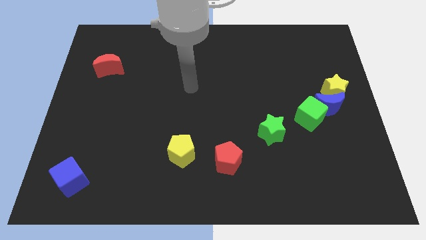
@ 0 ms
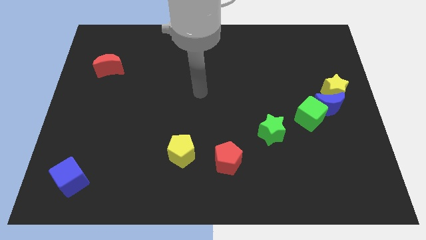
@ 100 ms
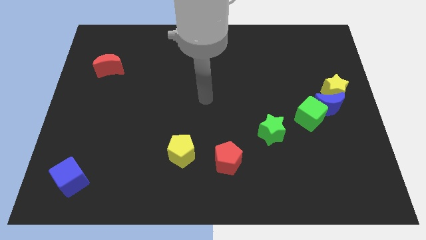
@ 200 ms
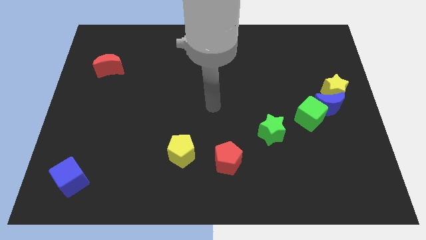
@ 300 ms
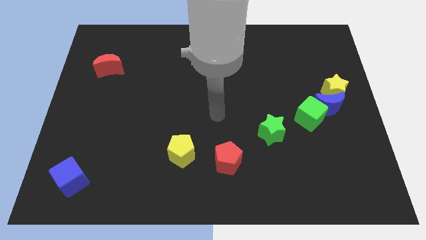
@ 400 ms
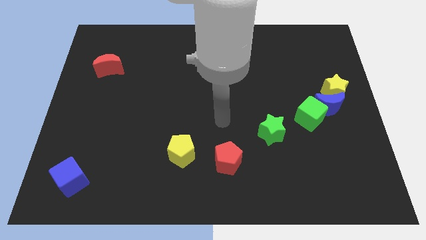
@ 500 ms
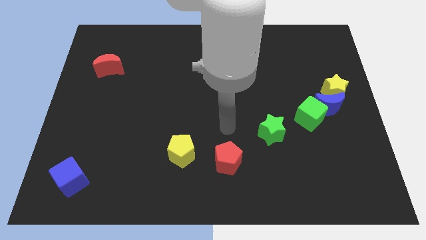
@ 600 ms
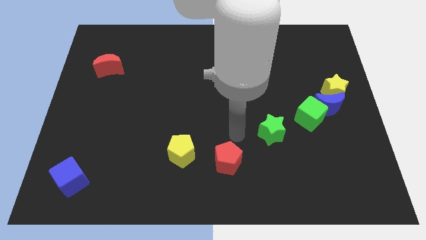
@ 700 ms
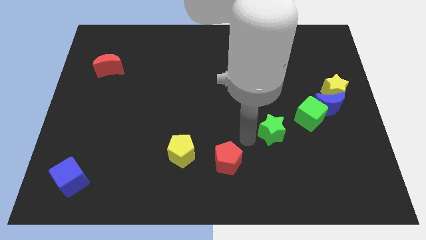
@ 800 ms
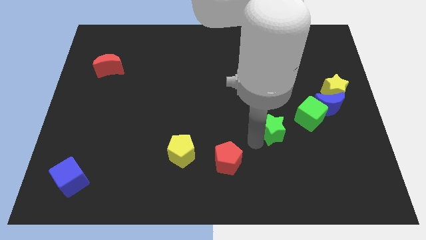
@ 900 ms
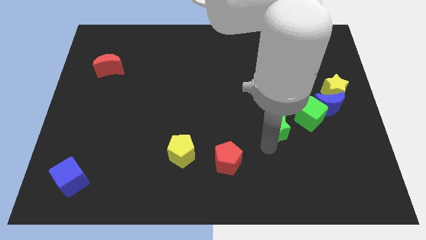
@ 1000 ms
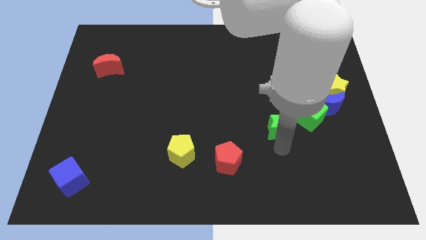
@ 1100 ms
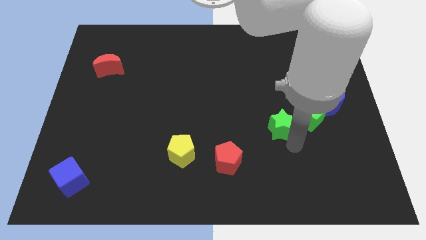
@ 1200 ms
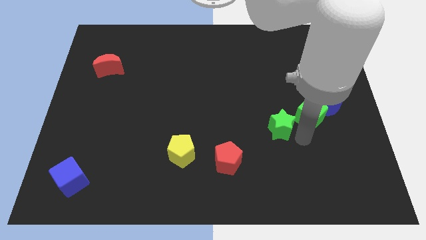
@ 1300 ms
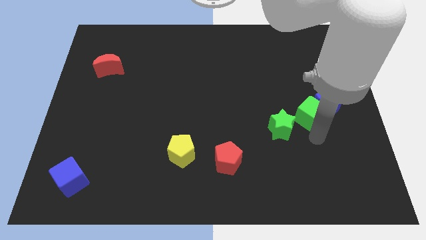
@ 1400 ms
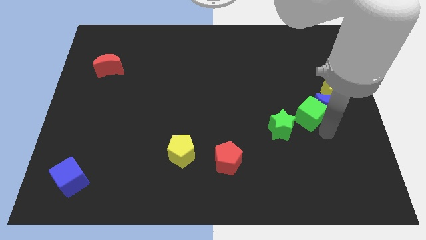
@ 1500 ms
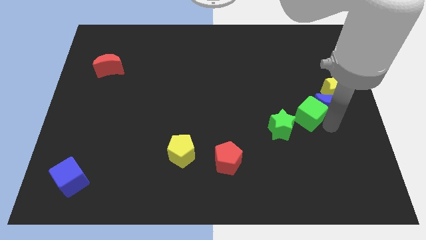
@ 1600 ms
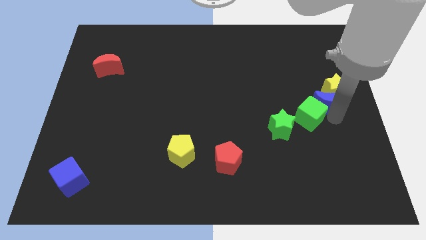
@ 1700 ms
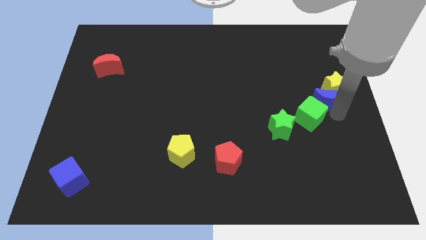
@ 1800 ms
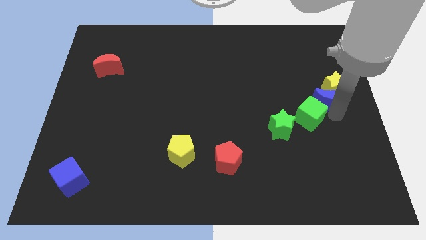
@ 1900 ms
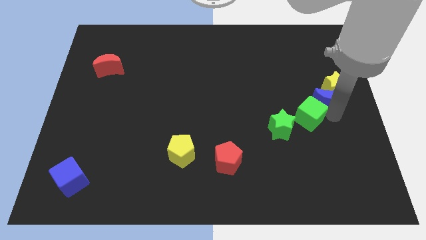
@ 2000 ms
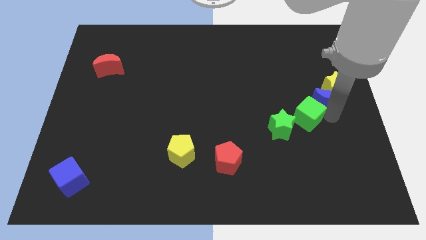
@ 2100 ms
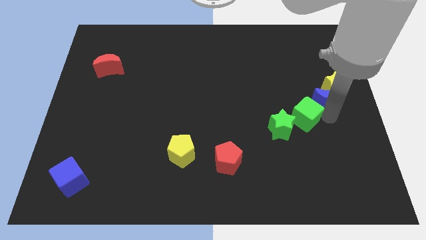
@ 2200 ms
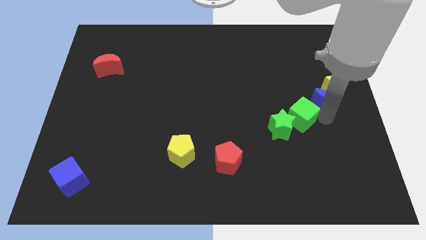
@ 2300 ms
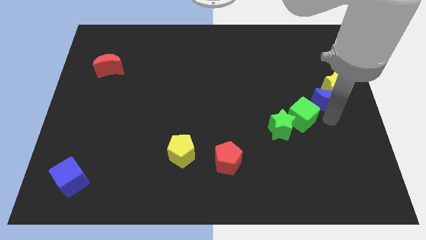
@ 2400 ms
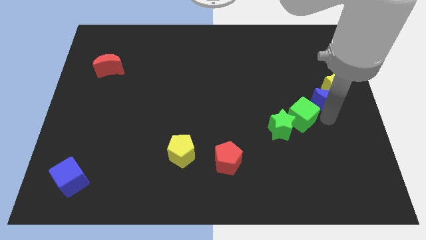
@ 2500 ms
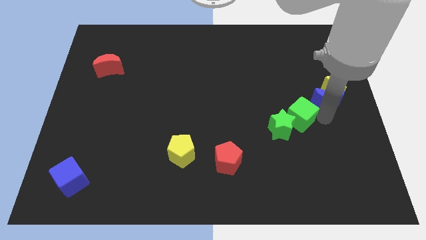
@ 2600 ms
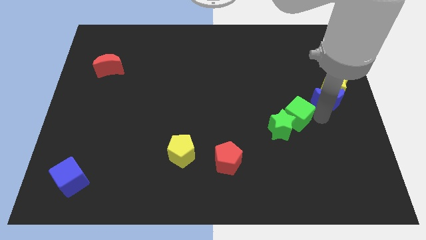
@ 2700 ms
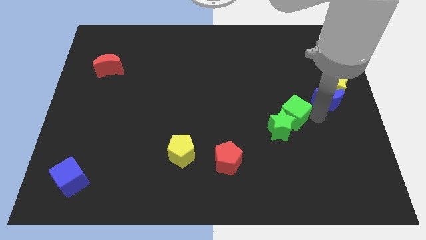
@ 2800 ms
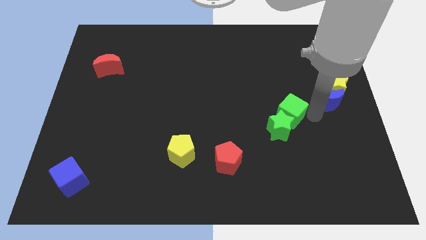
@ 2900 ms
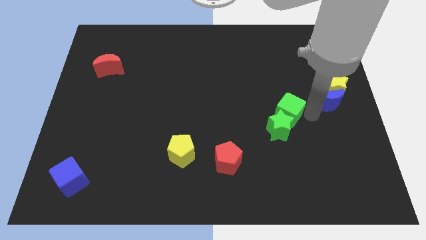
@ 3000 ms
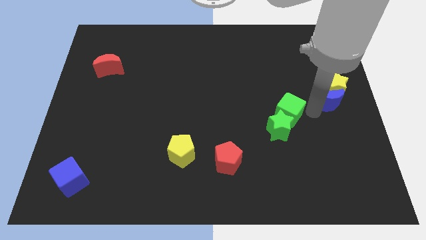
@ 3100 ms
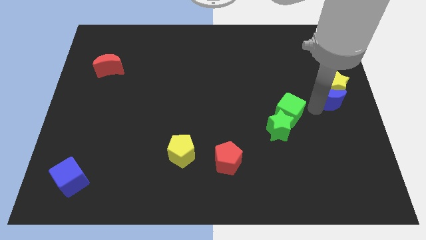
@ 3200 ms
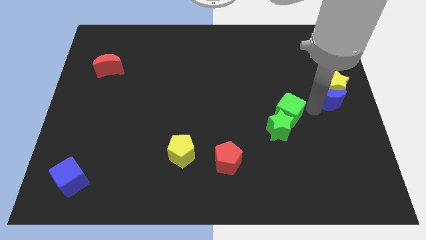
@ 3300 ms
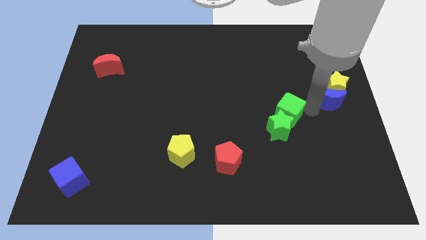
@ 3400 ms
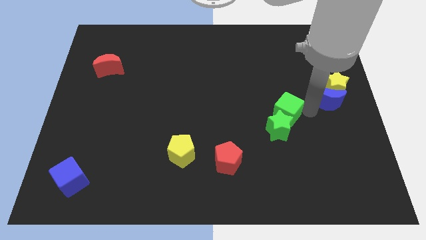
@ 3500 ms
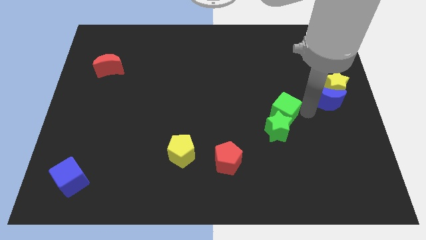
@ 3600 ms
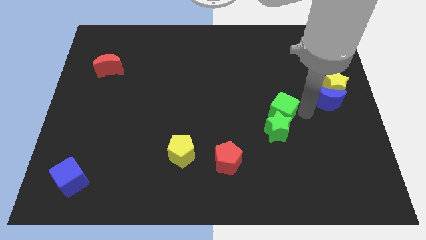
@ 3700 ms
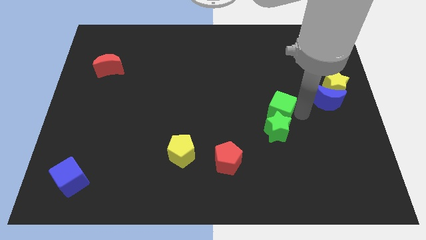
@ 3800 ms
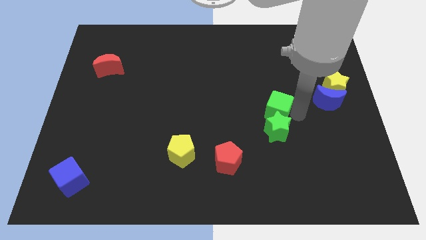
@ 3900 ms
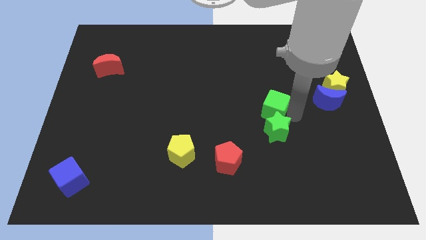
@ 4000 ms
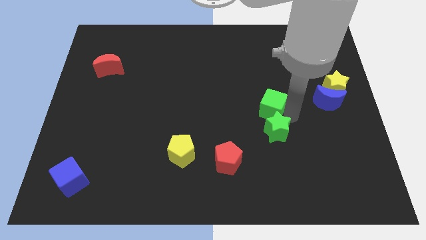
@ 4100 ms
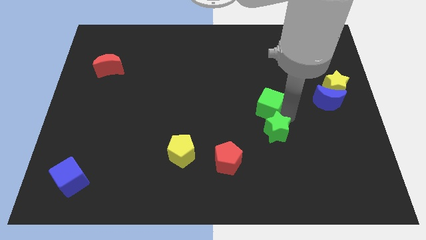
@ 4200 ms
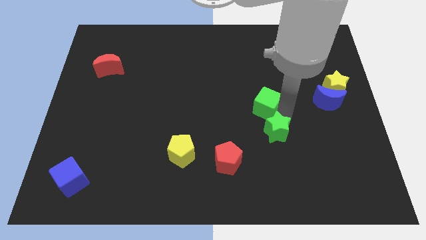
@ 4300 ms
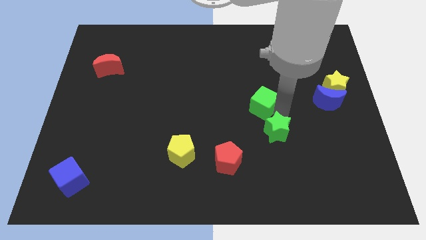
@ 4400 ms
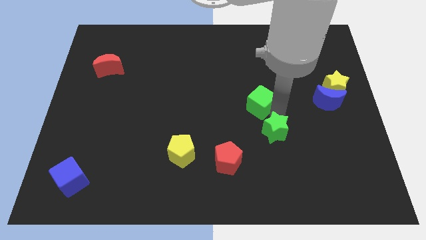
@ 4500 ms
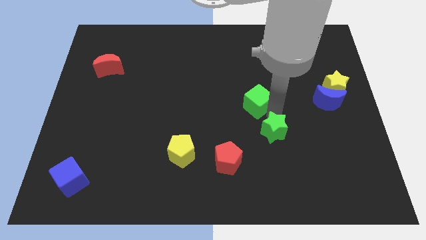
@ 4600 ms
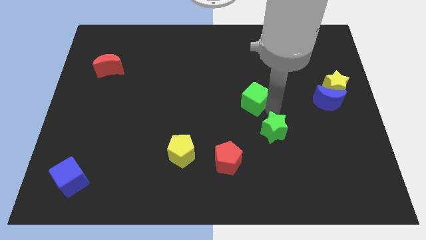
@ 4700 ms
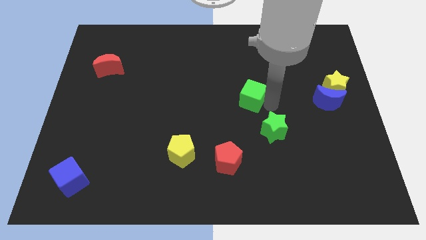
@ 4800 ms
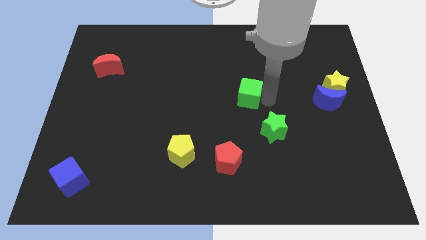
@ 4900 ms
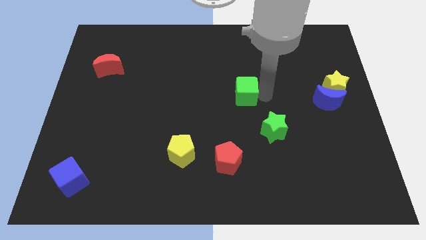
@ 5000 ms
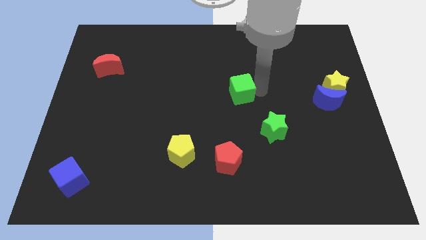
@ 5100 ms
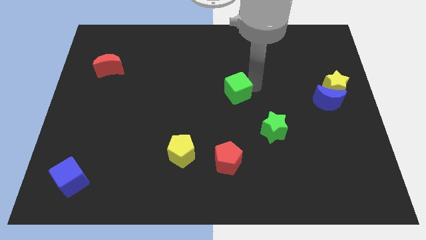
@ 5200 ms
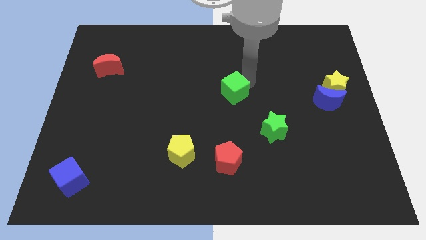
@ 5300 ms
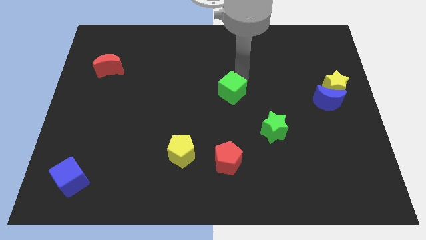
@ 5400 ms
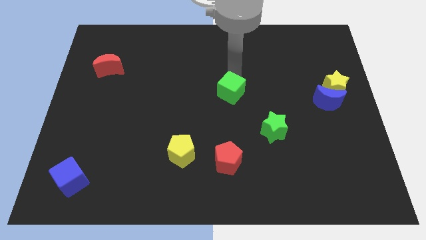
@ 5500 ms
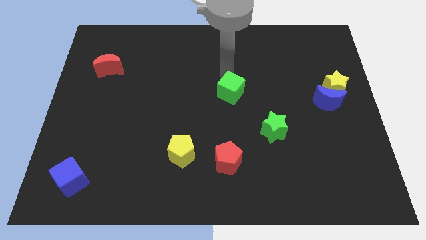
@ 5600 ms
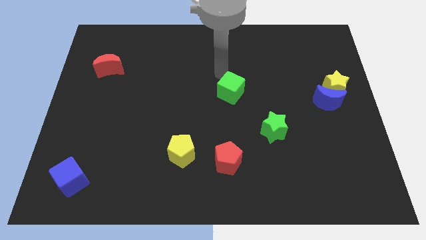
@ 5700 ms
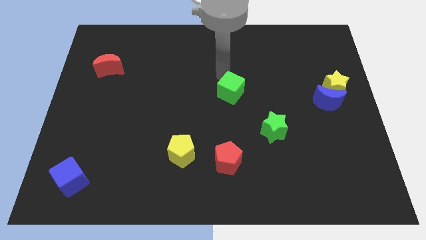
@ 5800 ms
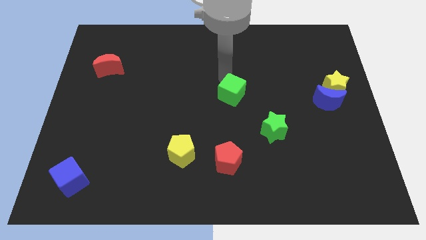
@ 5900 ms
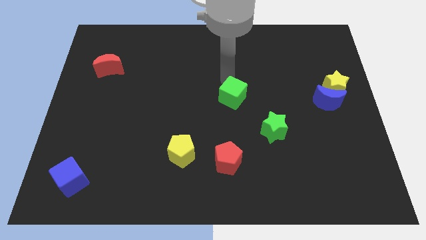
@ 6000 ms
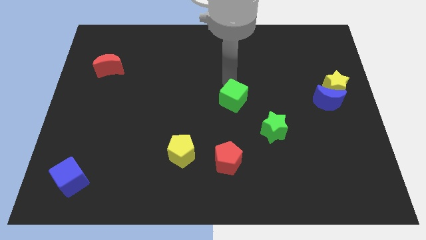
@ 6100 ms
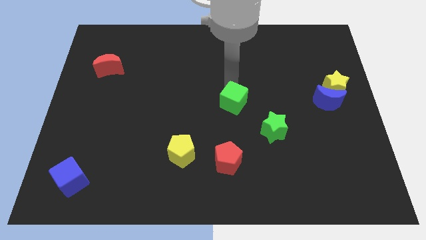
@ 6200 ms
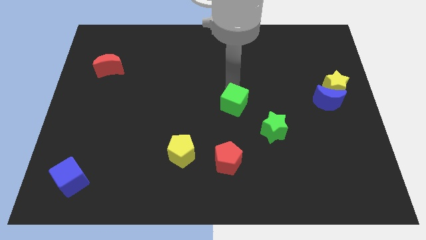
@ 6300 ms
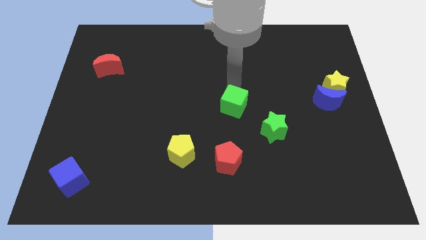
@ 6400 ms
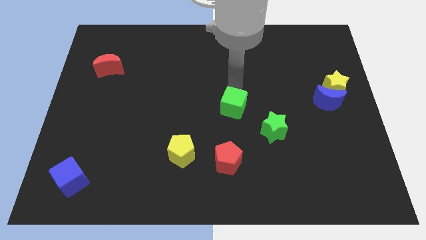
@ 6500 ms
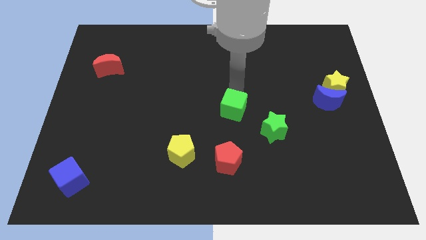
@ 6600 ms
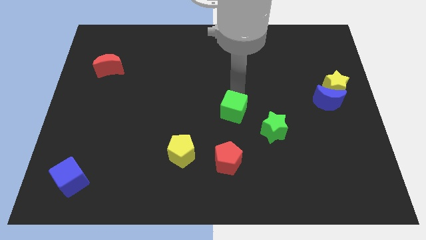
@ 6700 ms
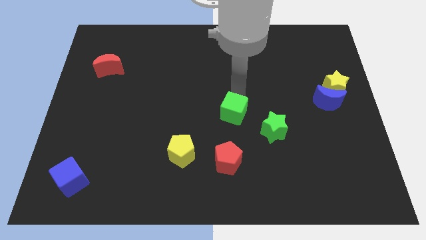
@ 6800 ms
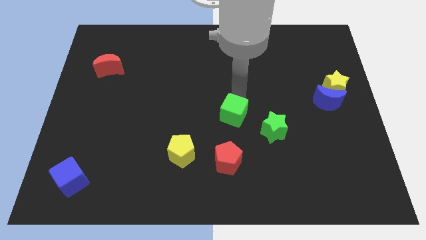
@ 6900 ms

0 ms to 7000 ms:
put the green cube left of the green star

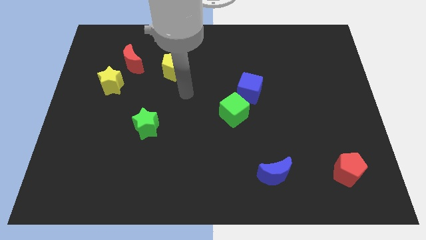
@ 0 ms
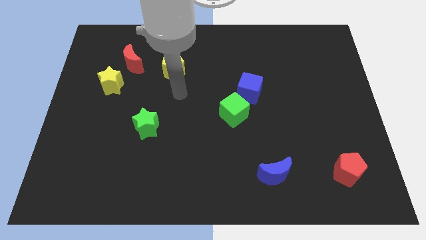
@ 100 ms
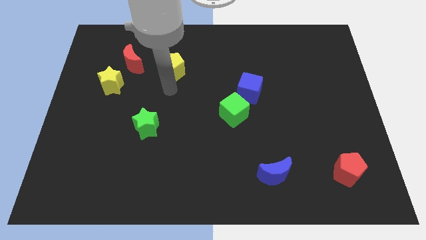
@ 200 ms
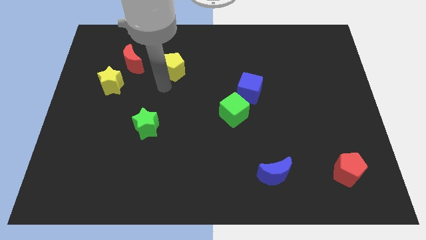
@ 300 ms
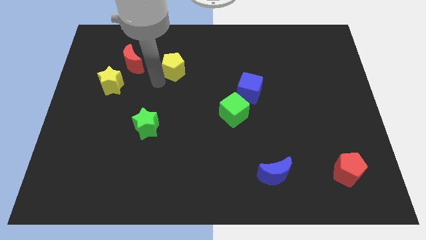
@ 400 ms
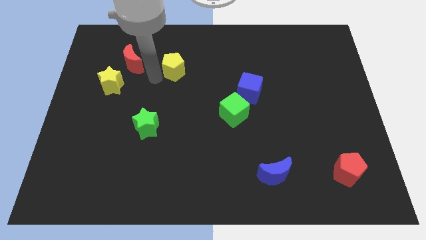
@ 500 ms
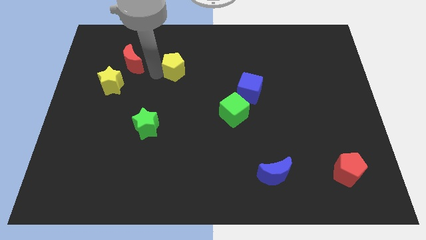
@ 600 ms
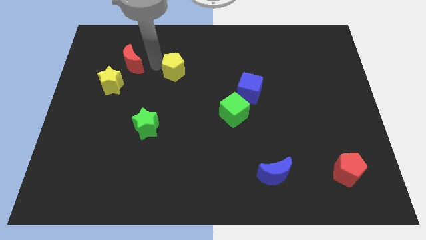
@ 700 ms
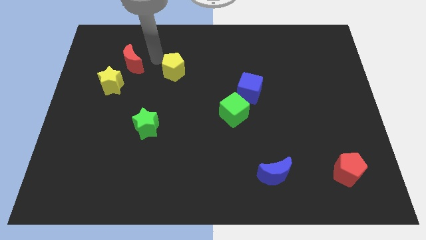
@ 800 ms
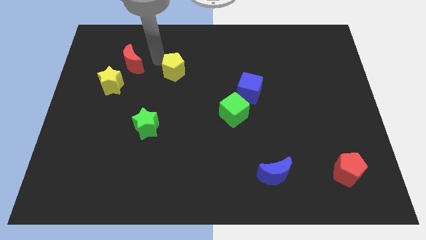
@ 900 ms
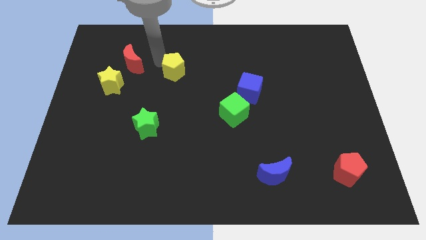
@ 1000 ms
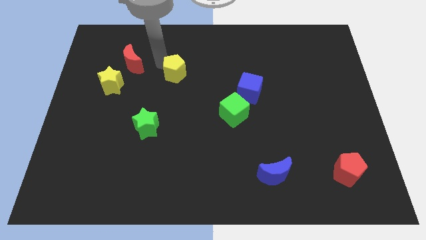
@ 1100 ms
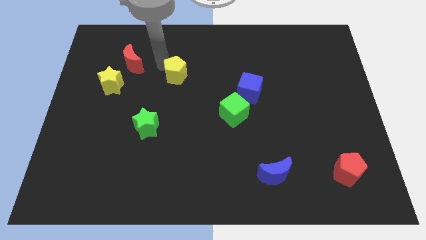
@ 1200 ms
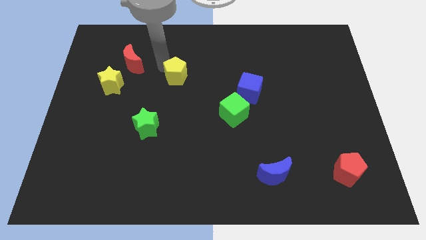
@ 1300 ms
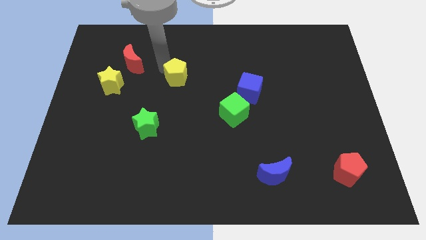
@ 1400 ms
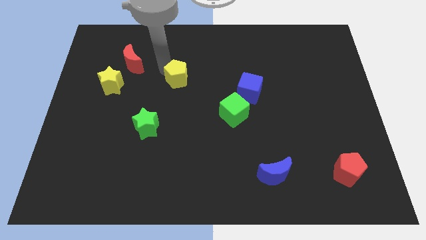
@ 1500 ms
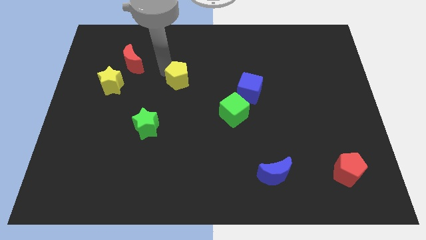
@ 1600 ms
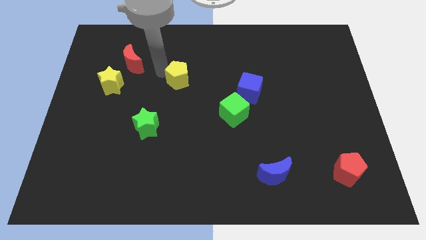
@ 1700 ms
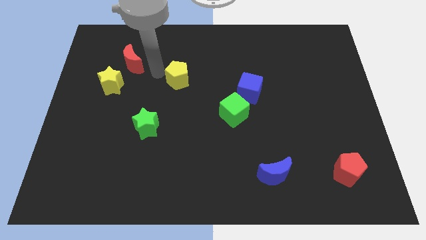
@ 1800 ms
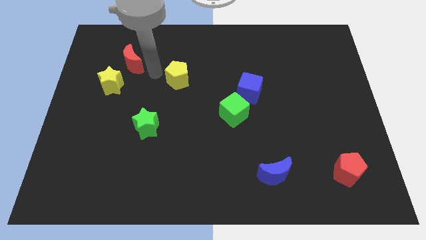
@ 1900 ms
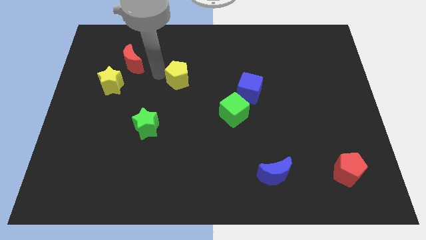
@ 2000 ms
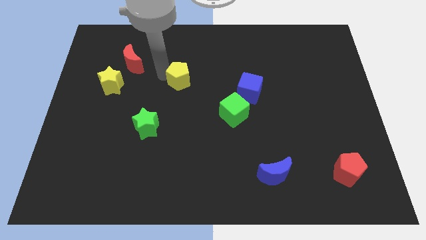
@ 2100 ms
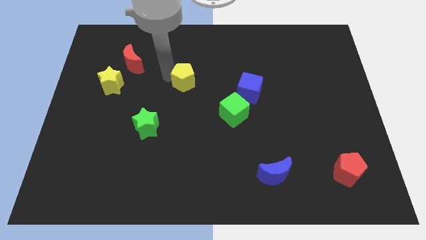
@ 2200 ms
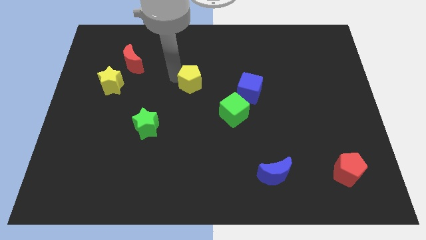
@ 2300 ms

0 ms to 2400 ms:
slide the yellow pentagon to the left side of the blue cube
